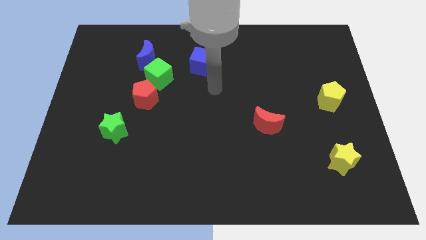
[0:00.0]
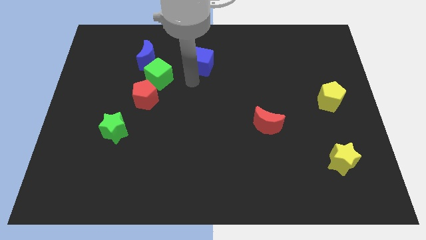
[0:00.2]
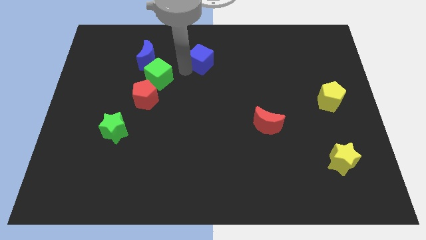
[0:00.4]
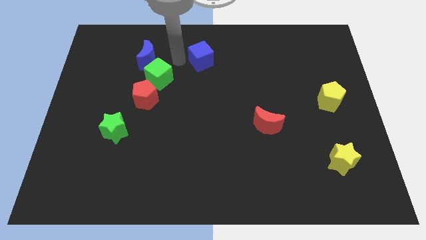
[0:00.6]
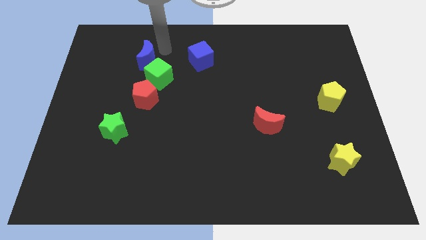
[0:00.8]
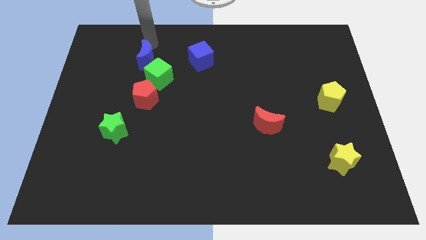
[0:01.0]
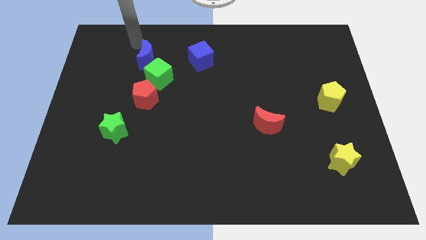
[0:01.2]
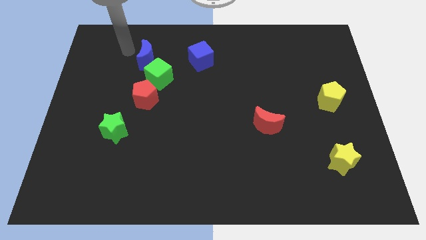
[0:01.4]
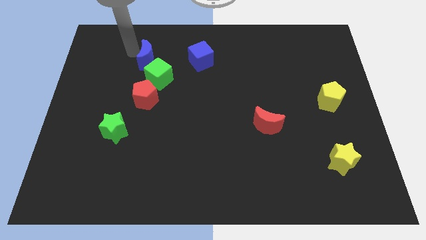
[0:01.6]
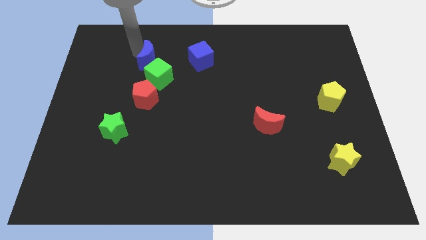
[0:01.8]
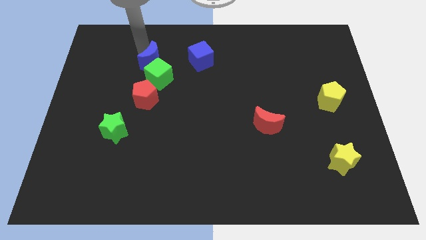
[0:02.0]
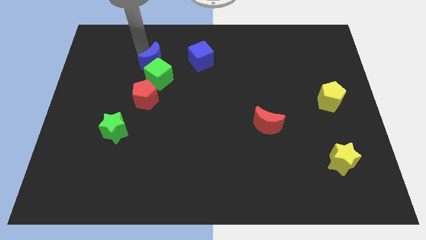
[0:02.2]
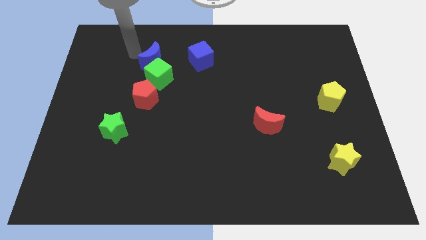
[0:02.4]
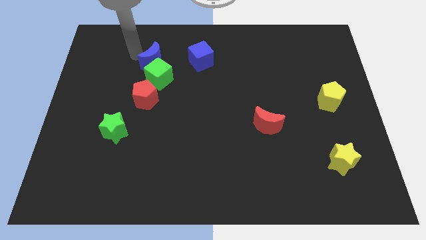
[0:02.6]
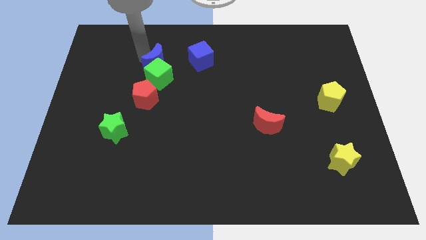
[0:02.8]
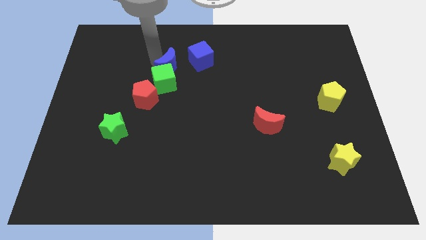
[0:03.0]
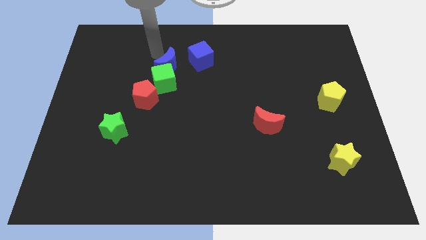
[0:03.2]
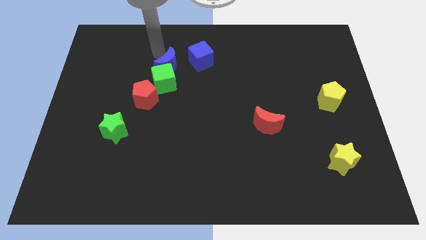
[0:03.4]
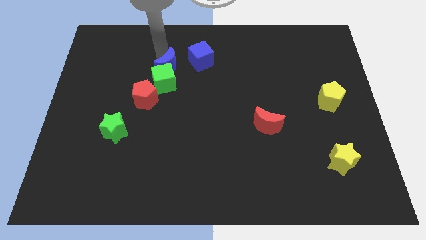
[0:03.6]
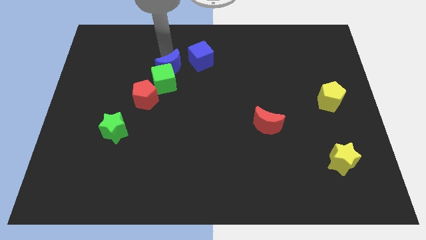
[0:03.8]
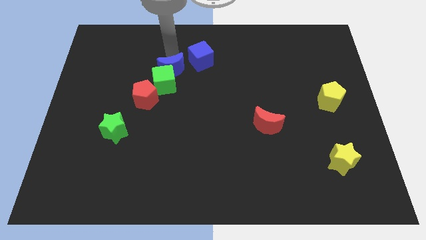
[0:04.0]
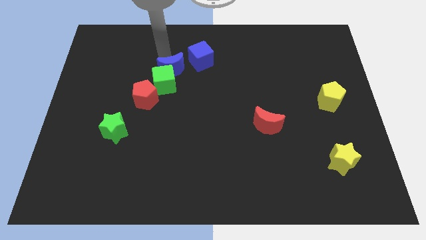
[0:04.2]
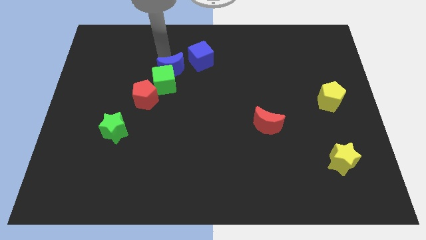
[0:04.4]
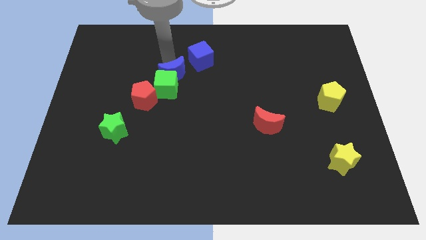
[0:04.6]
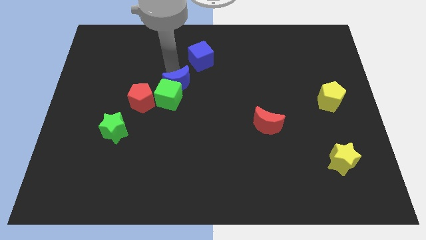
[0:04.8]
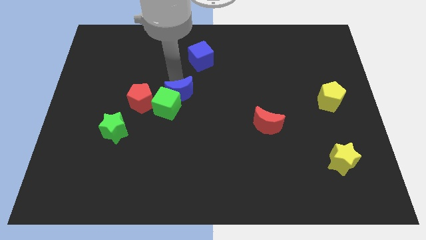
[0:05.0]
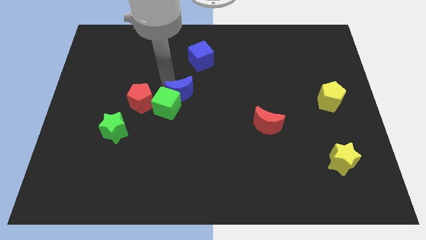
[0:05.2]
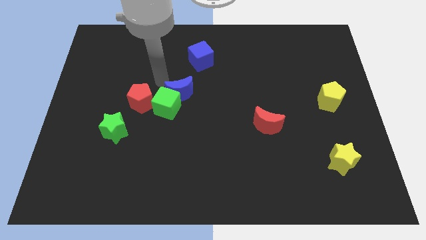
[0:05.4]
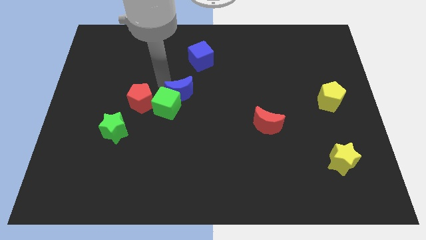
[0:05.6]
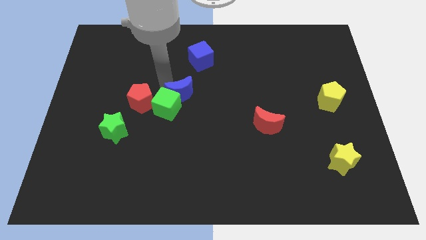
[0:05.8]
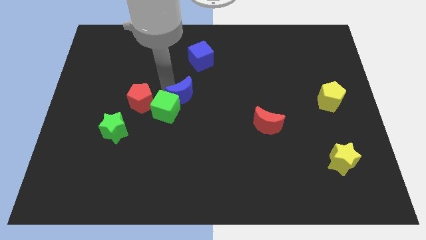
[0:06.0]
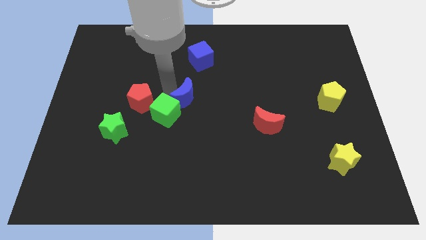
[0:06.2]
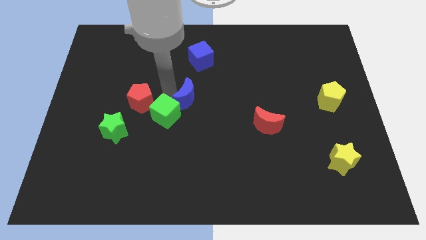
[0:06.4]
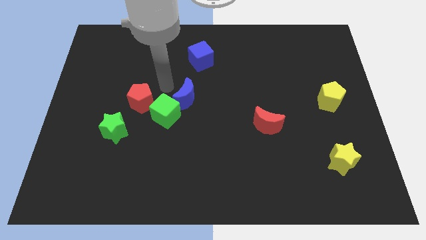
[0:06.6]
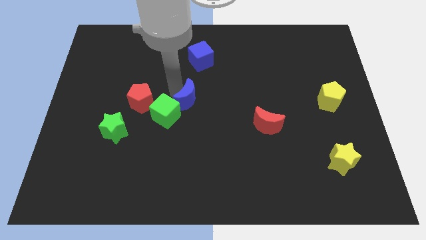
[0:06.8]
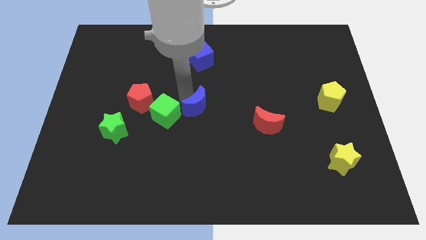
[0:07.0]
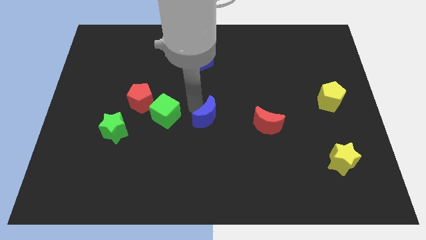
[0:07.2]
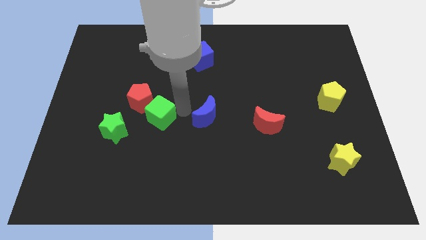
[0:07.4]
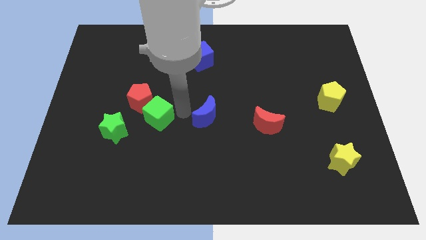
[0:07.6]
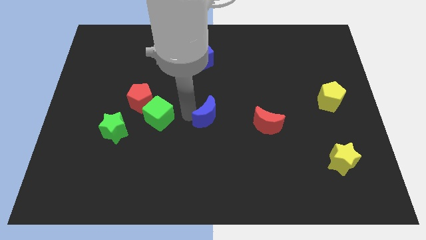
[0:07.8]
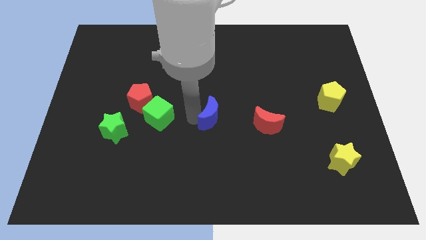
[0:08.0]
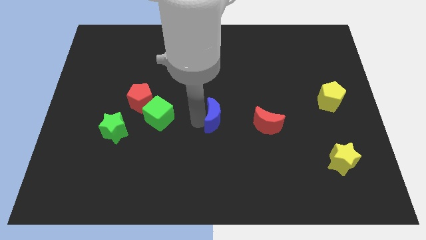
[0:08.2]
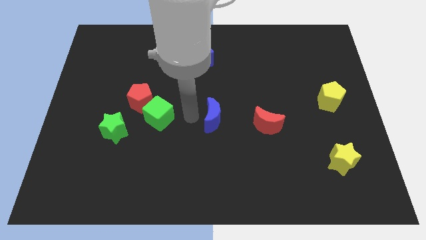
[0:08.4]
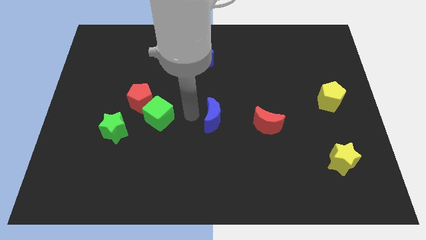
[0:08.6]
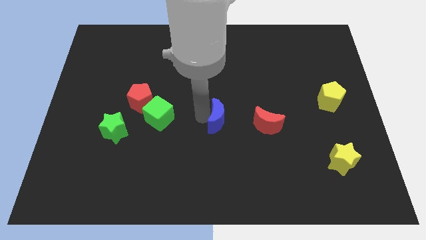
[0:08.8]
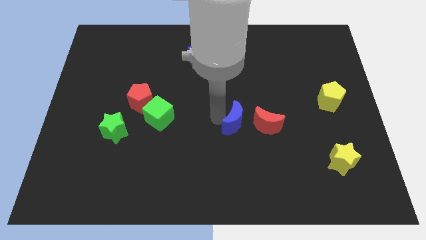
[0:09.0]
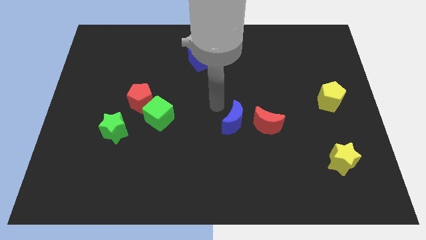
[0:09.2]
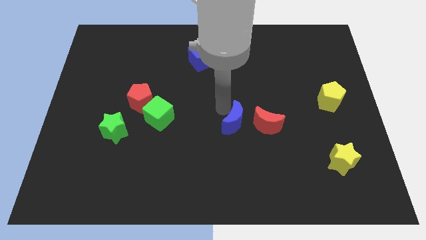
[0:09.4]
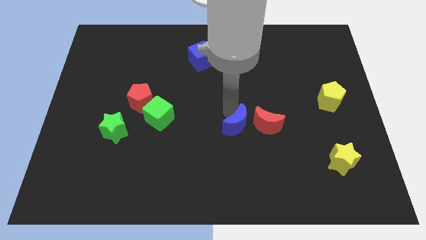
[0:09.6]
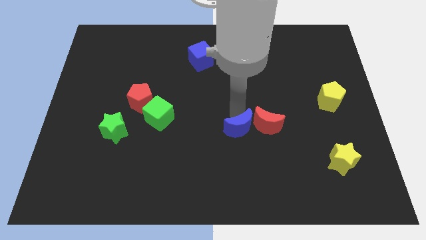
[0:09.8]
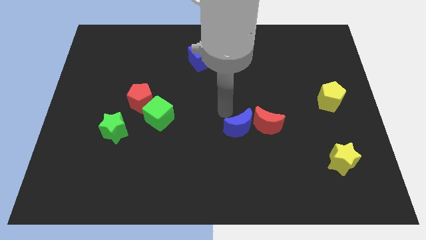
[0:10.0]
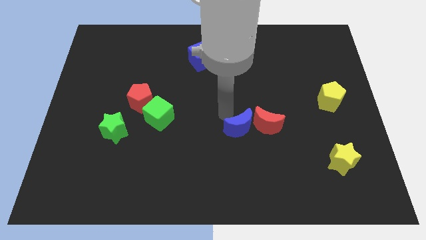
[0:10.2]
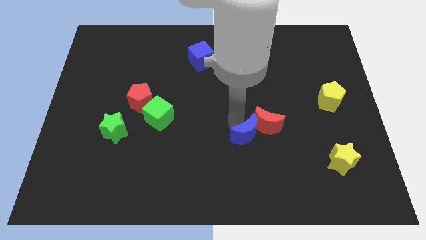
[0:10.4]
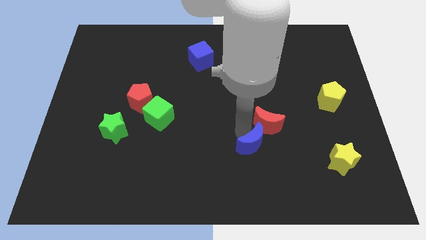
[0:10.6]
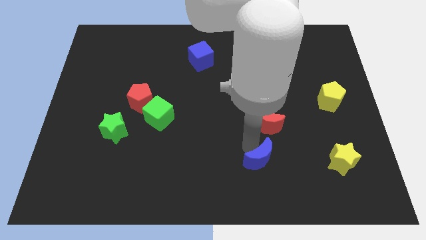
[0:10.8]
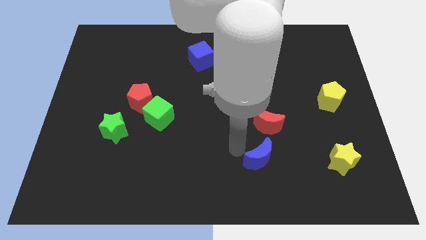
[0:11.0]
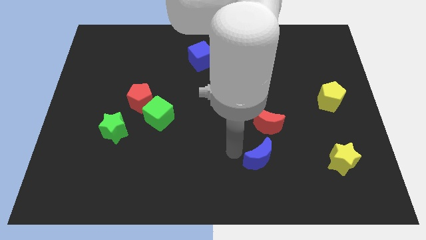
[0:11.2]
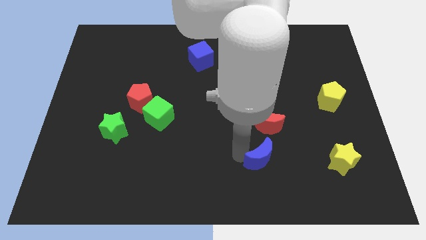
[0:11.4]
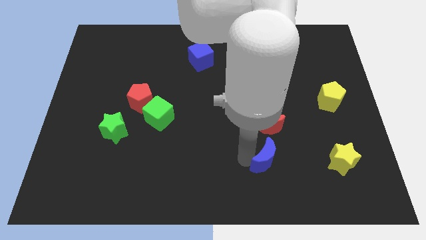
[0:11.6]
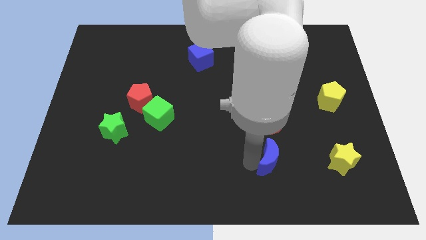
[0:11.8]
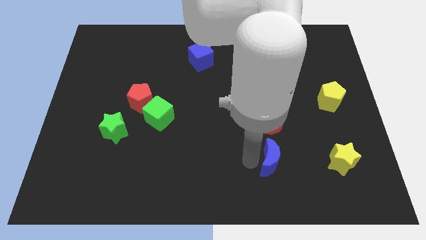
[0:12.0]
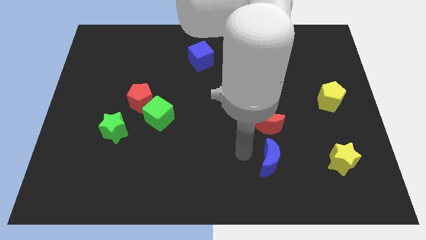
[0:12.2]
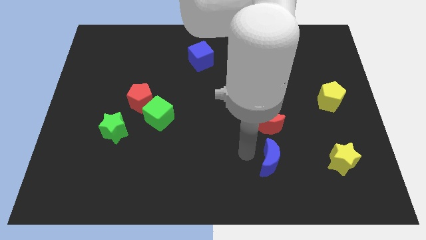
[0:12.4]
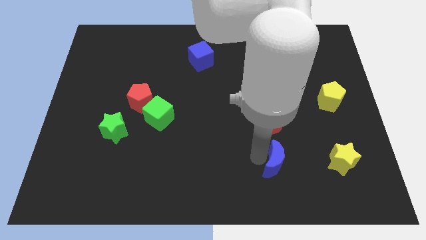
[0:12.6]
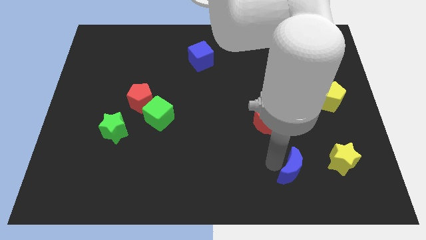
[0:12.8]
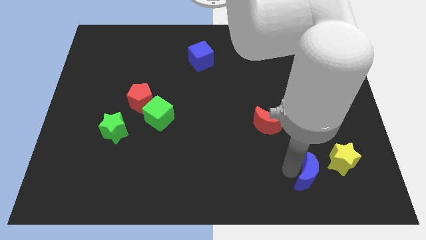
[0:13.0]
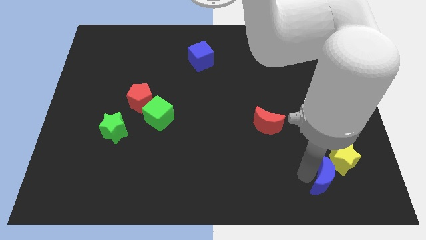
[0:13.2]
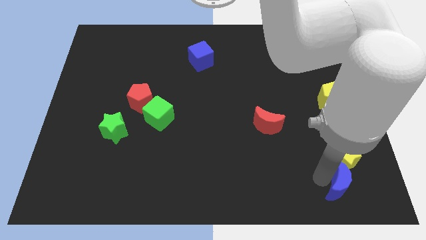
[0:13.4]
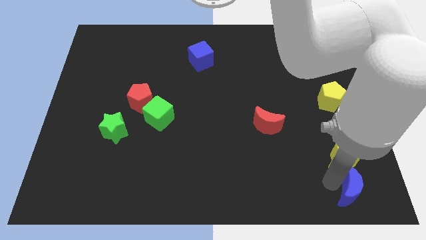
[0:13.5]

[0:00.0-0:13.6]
slide the blue moon to the bottom right corner
